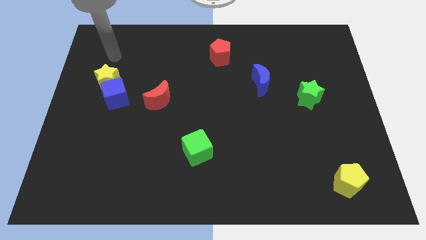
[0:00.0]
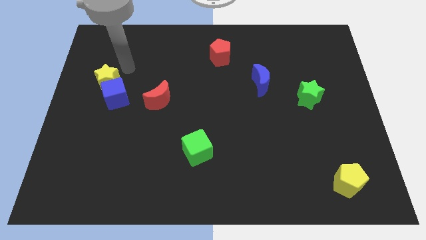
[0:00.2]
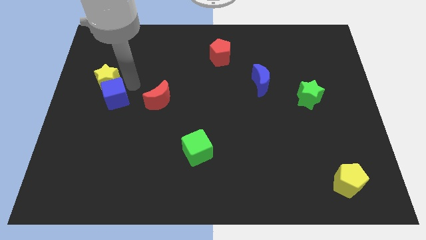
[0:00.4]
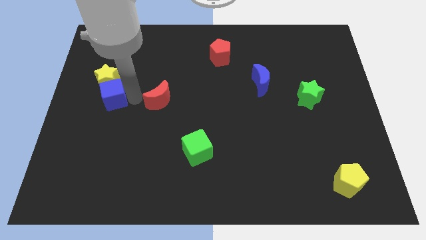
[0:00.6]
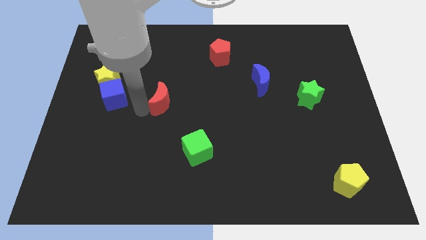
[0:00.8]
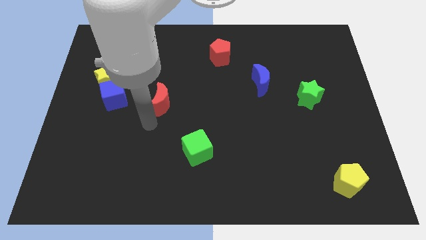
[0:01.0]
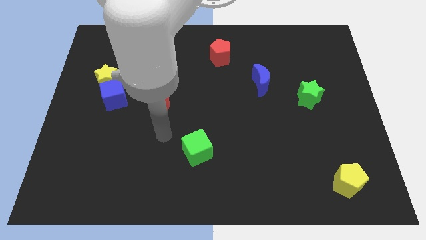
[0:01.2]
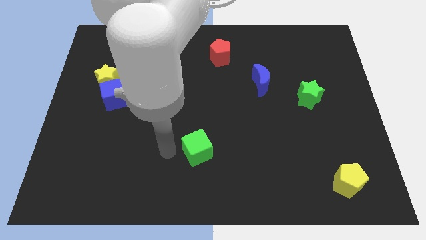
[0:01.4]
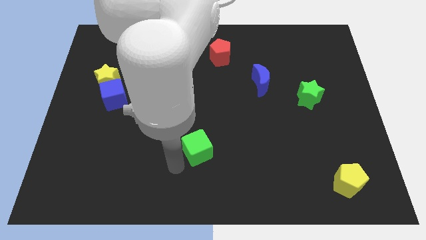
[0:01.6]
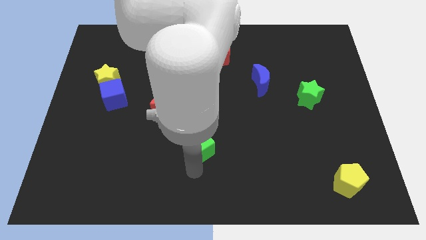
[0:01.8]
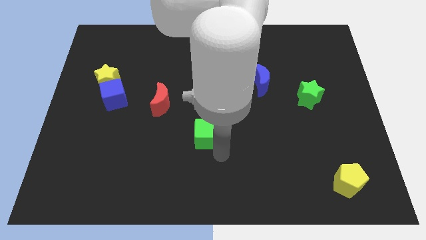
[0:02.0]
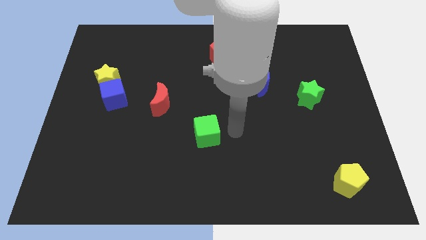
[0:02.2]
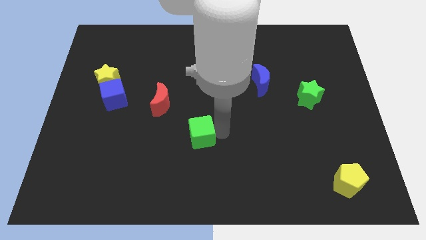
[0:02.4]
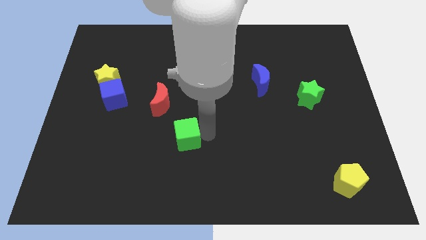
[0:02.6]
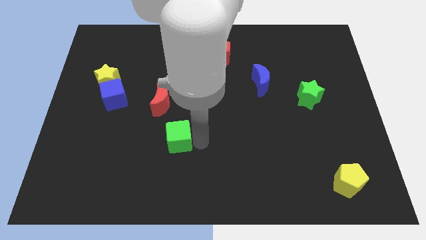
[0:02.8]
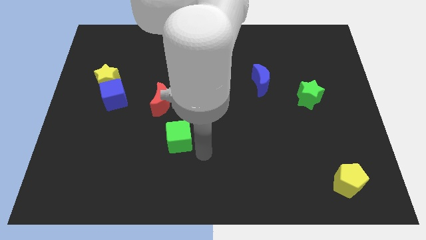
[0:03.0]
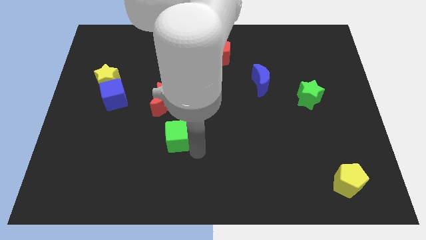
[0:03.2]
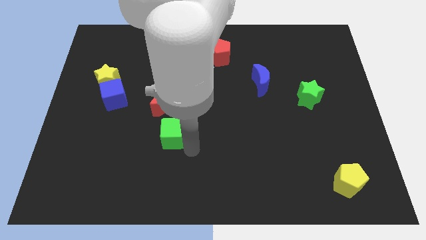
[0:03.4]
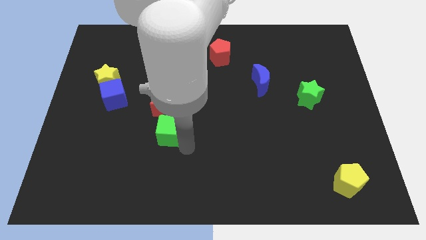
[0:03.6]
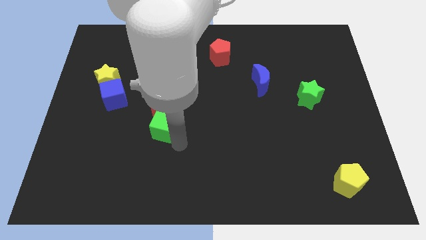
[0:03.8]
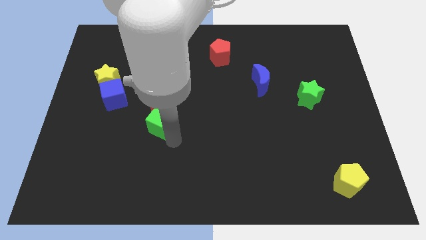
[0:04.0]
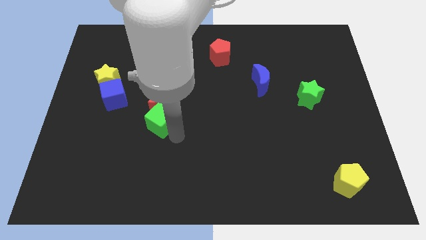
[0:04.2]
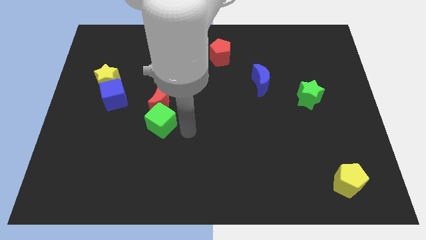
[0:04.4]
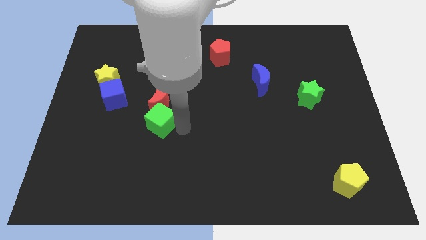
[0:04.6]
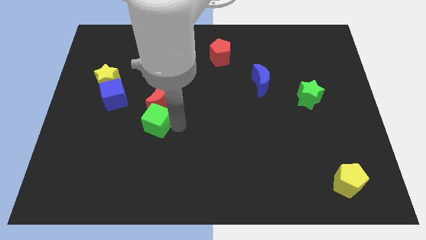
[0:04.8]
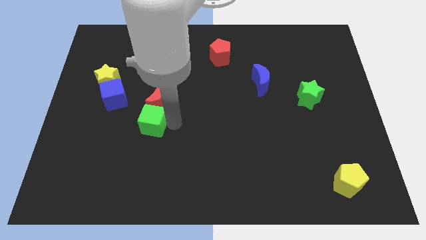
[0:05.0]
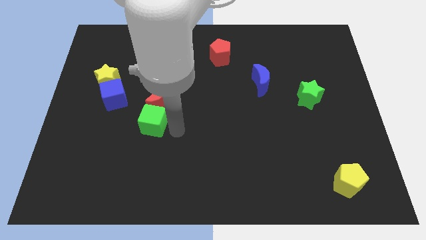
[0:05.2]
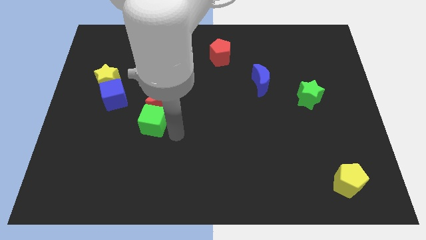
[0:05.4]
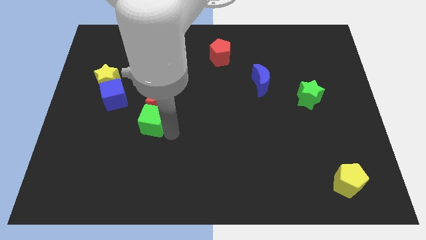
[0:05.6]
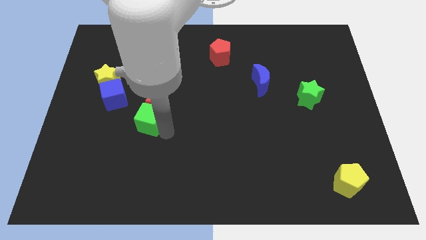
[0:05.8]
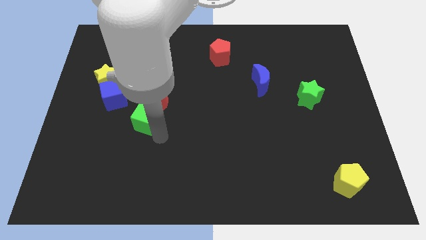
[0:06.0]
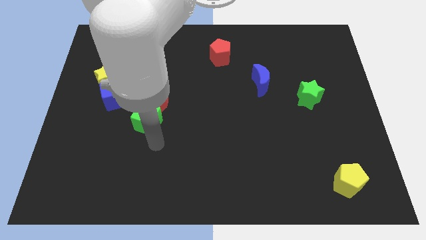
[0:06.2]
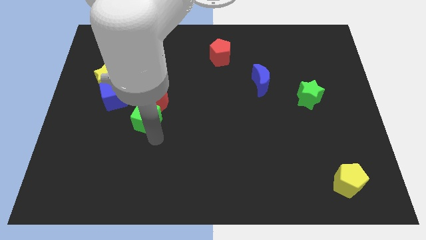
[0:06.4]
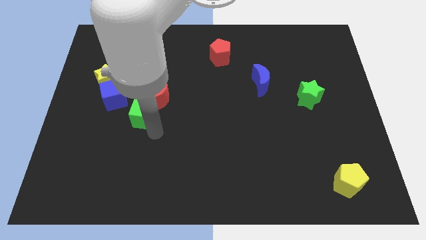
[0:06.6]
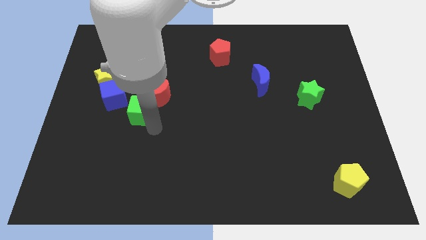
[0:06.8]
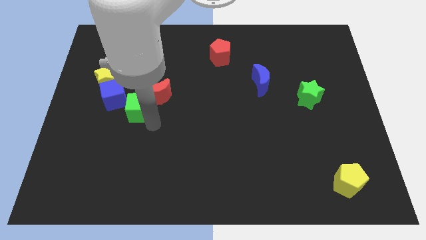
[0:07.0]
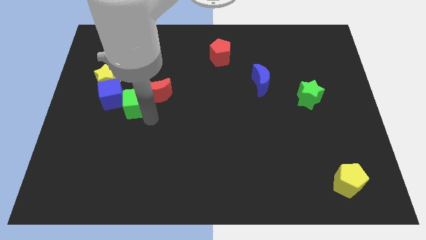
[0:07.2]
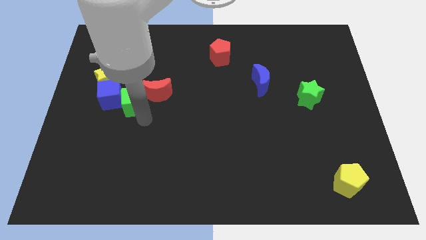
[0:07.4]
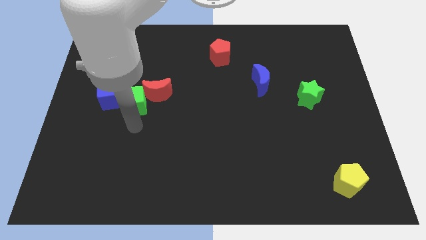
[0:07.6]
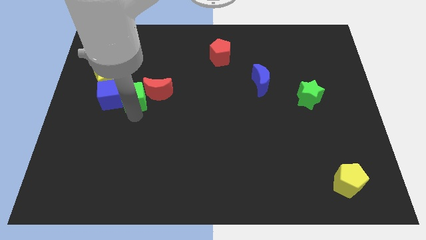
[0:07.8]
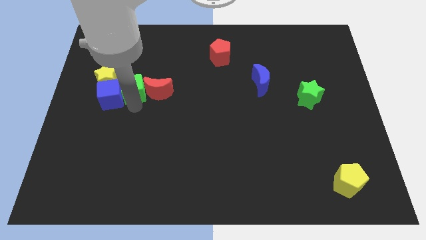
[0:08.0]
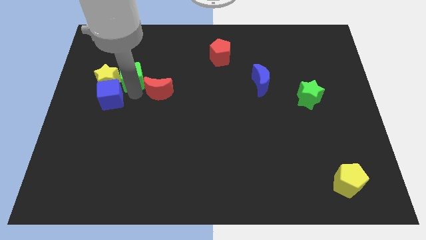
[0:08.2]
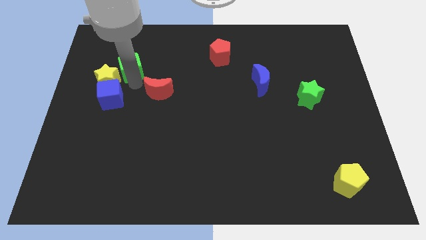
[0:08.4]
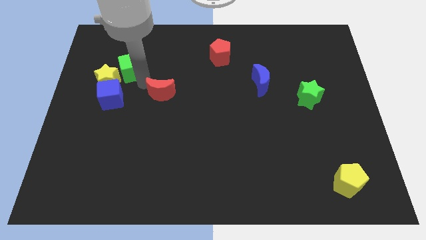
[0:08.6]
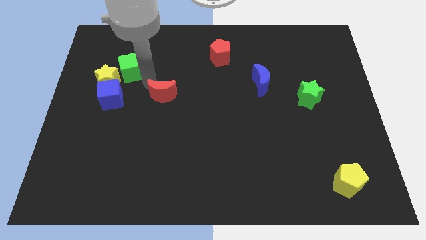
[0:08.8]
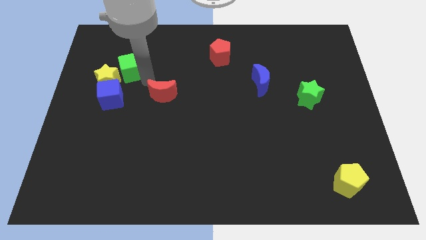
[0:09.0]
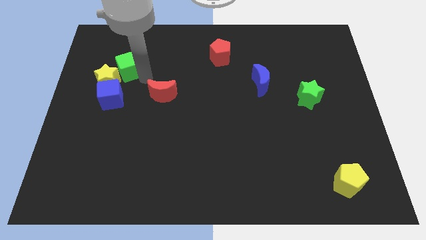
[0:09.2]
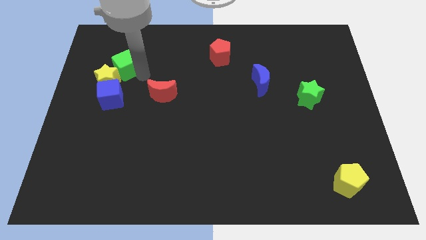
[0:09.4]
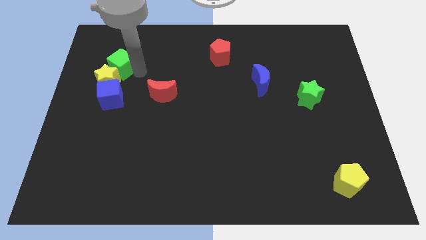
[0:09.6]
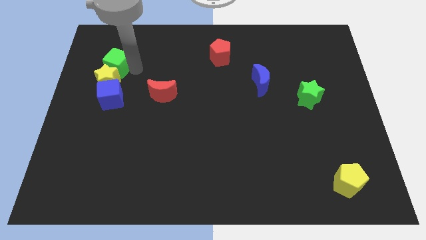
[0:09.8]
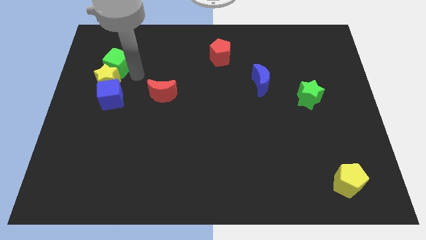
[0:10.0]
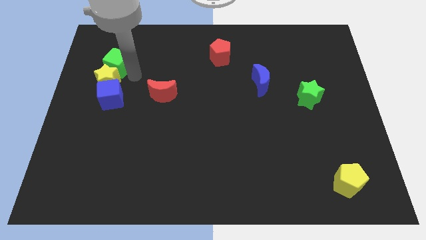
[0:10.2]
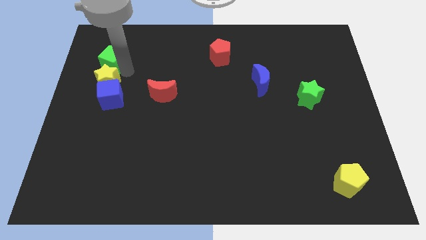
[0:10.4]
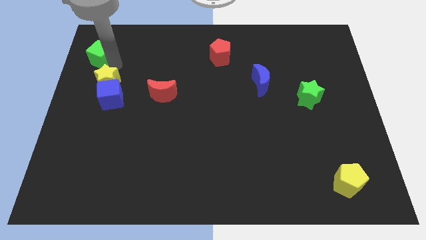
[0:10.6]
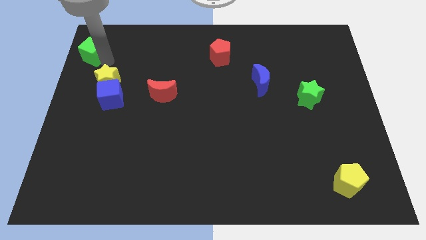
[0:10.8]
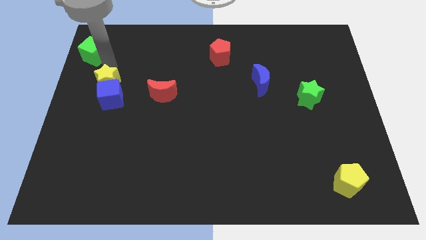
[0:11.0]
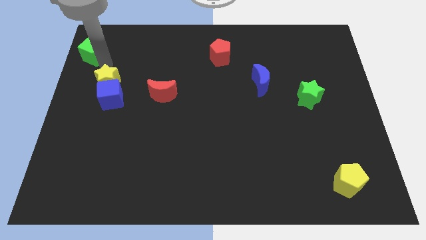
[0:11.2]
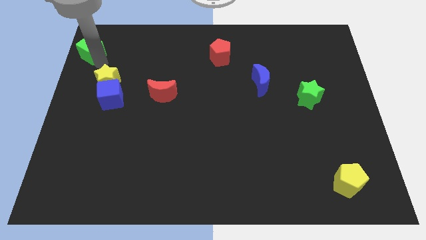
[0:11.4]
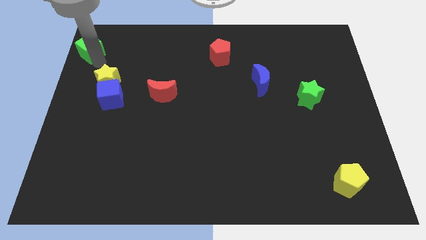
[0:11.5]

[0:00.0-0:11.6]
push the green cube to the top left

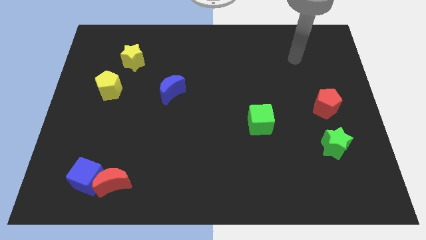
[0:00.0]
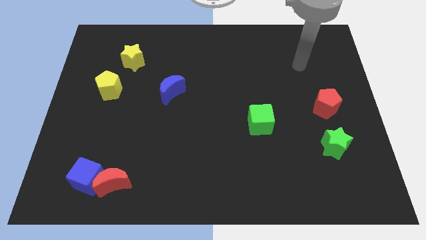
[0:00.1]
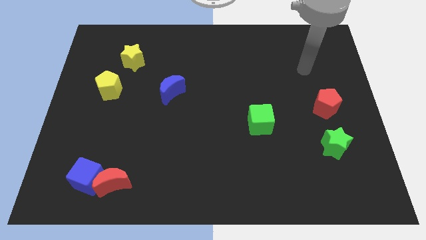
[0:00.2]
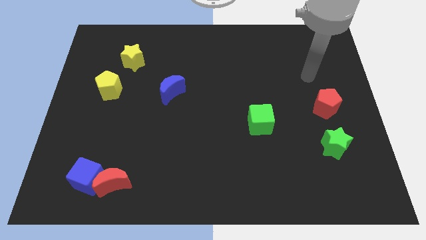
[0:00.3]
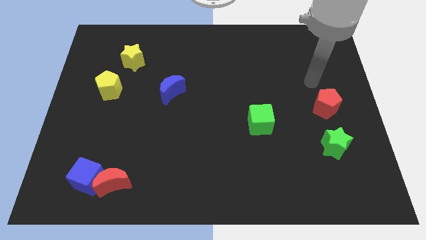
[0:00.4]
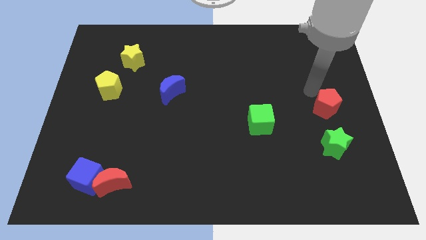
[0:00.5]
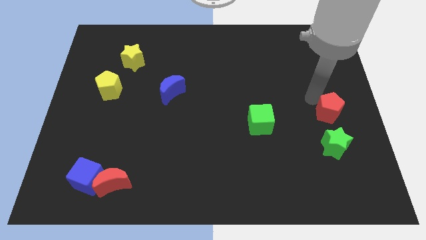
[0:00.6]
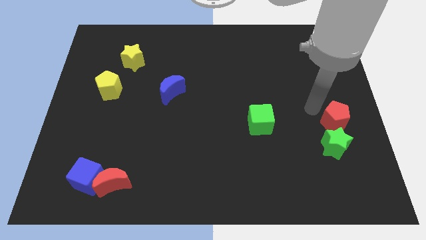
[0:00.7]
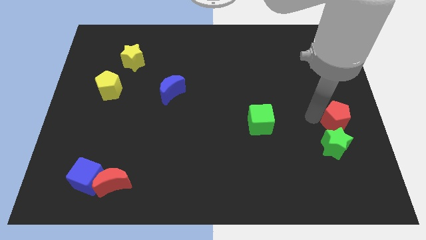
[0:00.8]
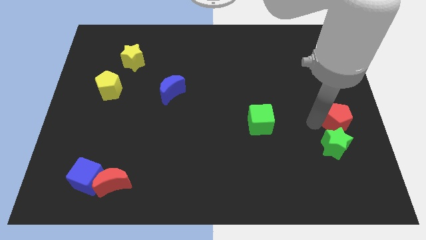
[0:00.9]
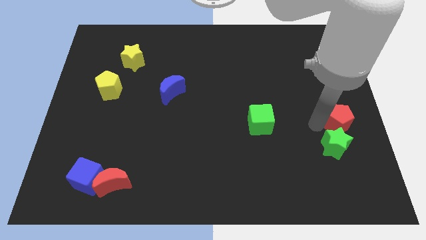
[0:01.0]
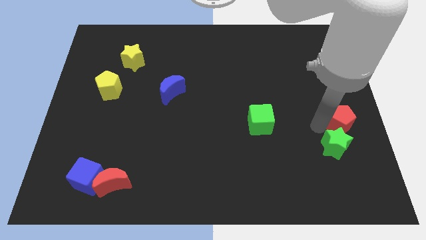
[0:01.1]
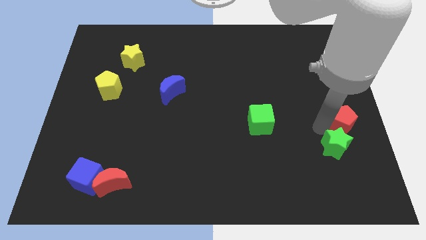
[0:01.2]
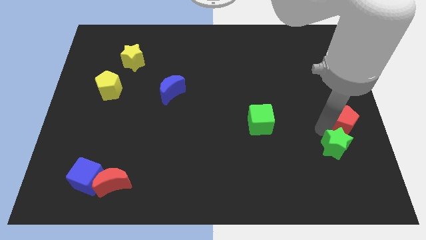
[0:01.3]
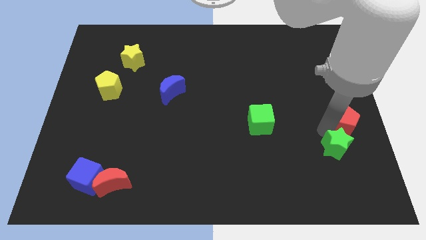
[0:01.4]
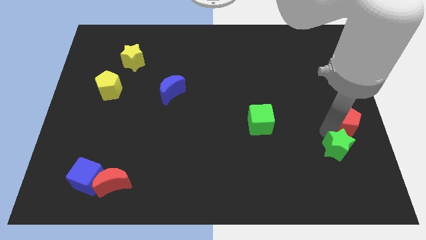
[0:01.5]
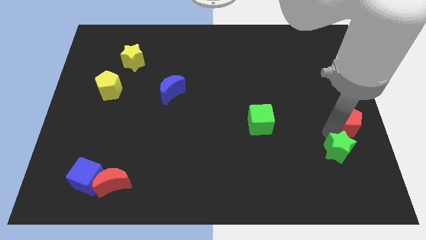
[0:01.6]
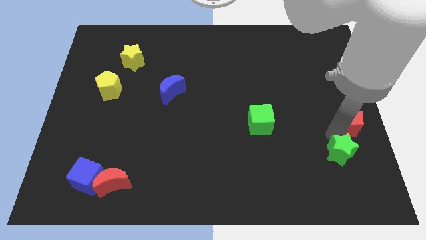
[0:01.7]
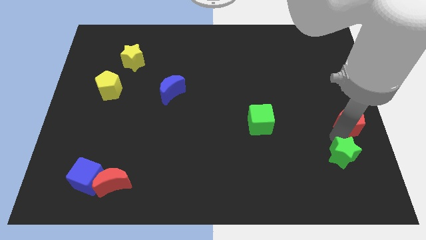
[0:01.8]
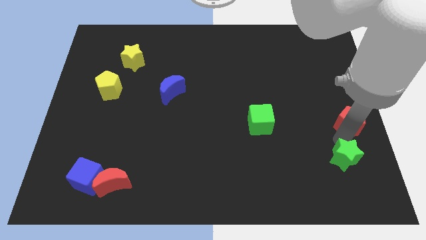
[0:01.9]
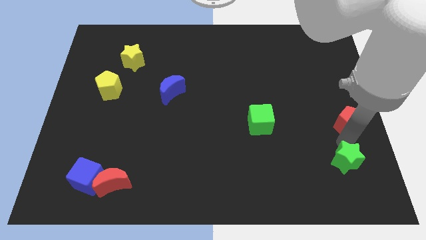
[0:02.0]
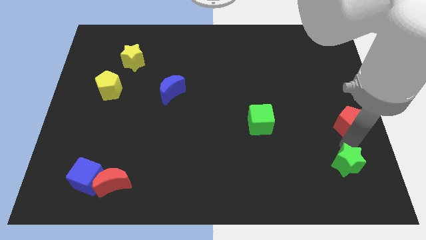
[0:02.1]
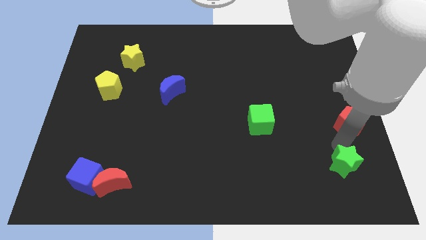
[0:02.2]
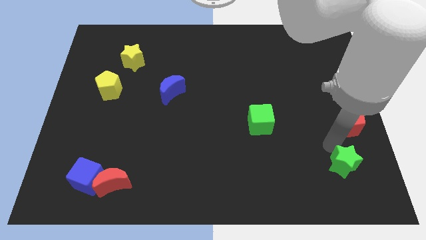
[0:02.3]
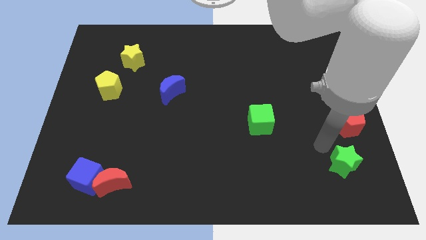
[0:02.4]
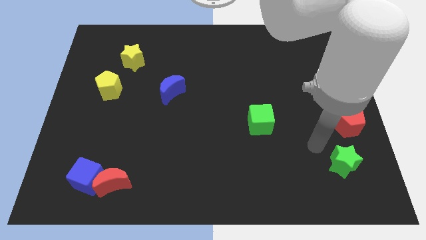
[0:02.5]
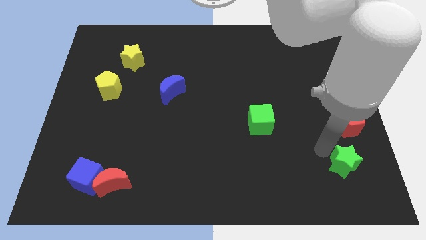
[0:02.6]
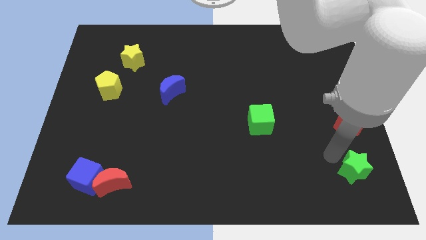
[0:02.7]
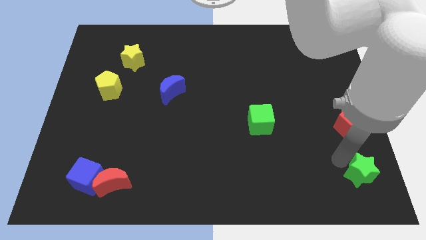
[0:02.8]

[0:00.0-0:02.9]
move the green star to the lower right corner
